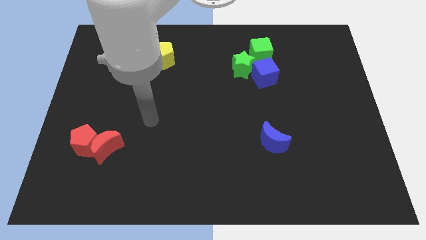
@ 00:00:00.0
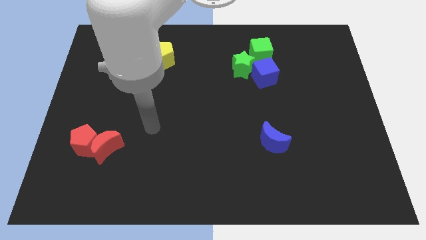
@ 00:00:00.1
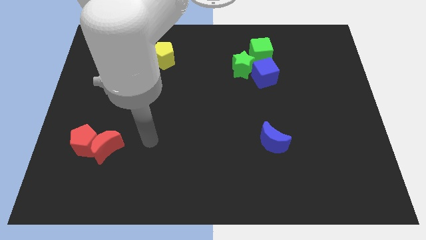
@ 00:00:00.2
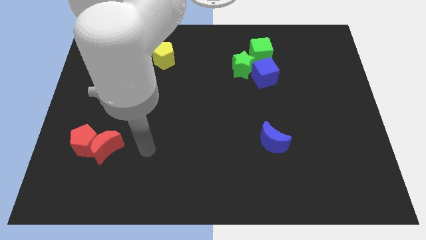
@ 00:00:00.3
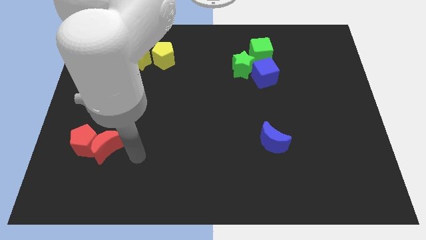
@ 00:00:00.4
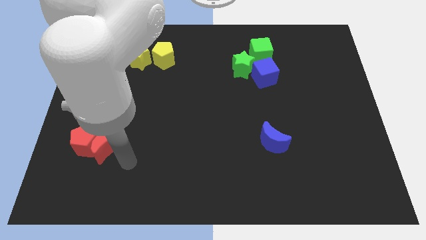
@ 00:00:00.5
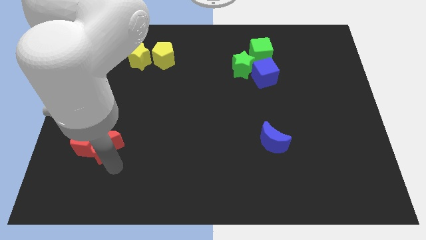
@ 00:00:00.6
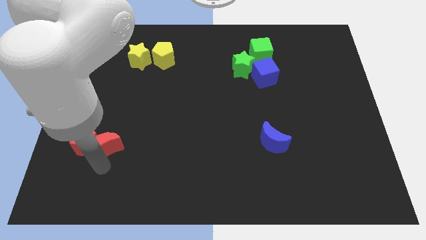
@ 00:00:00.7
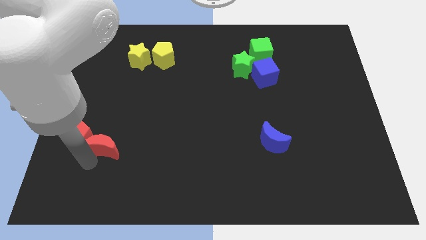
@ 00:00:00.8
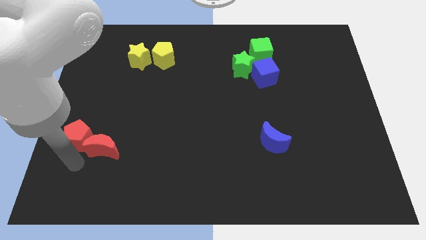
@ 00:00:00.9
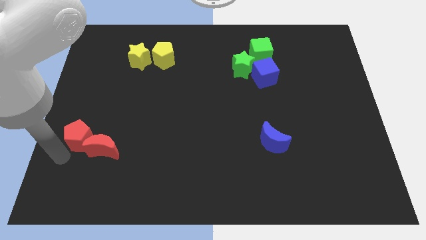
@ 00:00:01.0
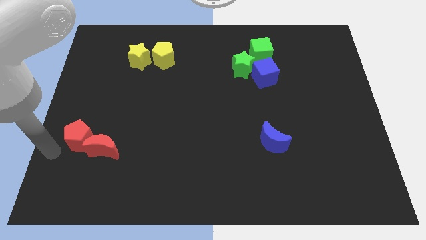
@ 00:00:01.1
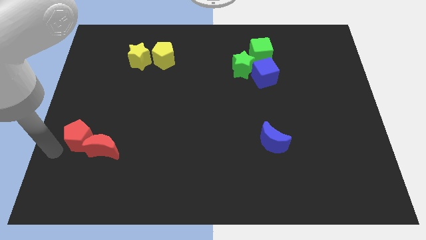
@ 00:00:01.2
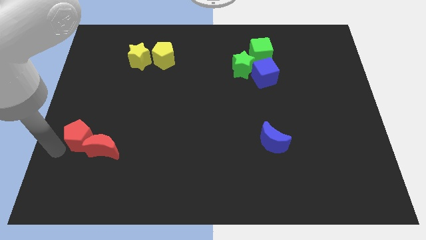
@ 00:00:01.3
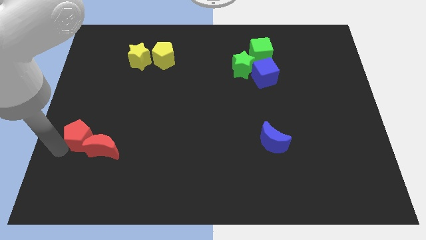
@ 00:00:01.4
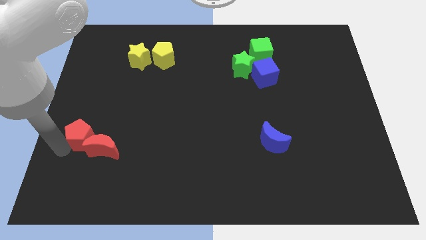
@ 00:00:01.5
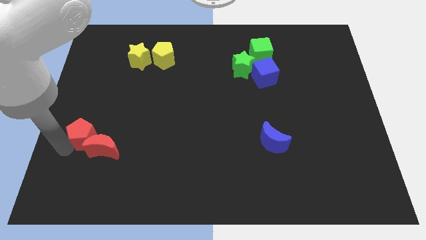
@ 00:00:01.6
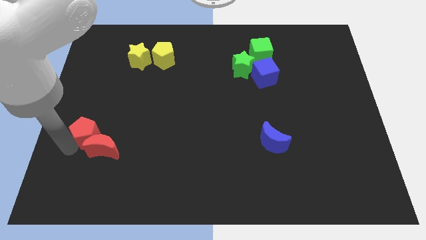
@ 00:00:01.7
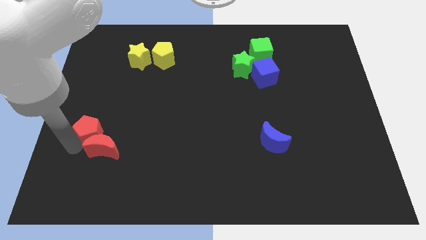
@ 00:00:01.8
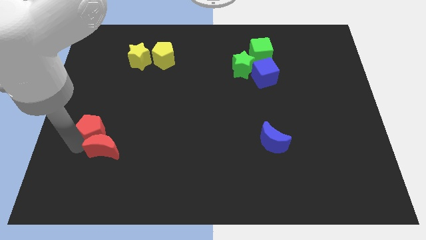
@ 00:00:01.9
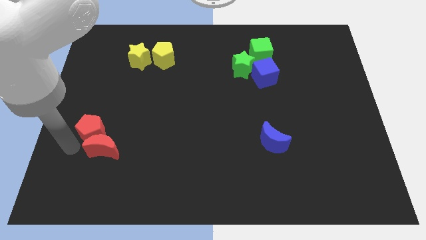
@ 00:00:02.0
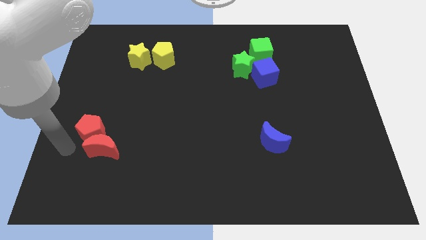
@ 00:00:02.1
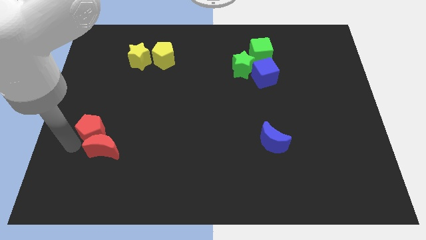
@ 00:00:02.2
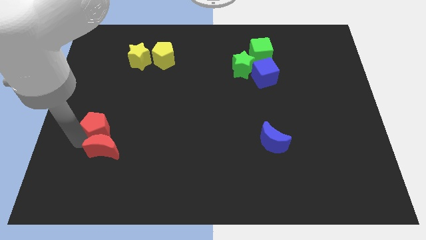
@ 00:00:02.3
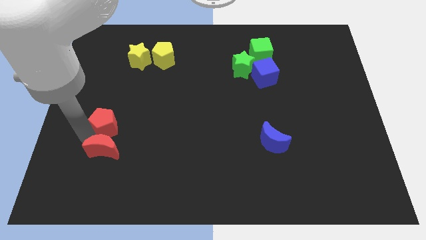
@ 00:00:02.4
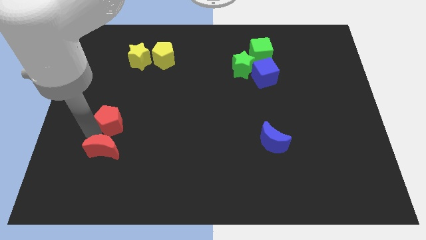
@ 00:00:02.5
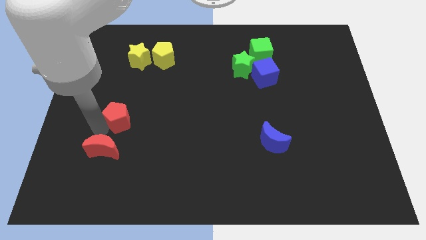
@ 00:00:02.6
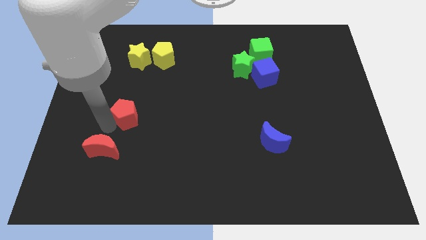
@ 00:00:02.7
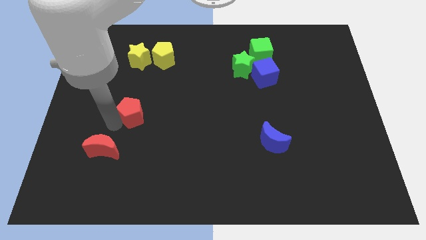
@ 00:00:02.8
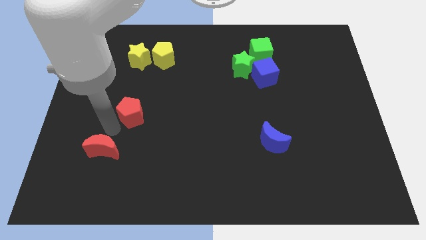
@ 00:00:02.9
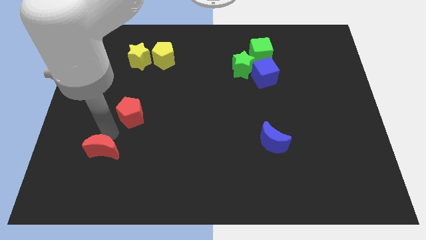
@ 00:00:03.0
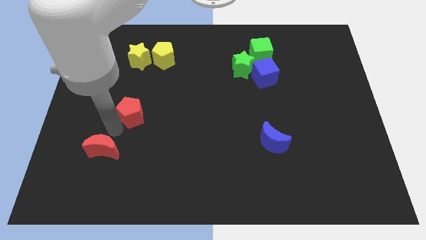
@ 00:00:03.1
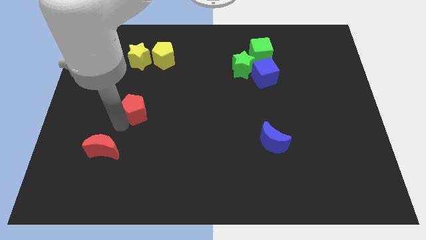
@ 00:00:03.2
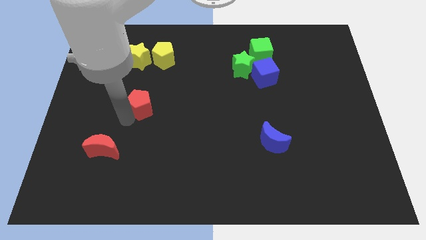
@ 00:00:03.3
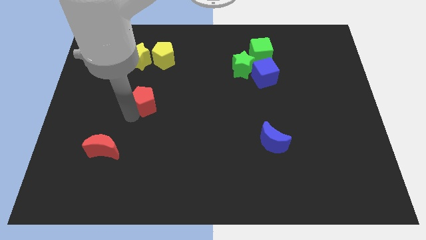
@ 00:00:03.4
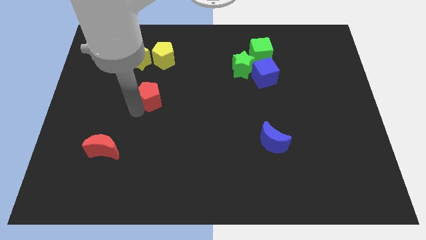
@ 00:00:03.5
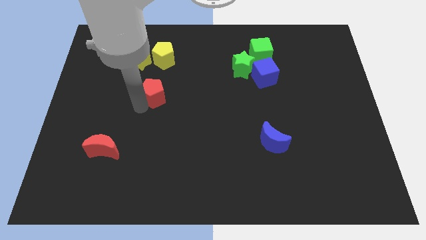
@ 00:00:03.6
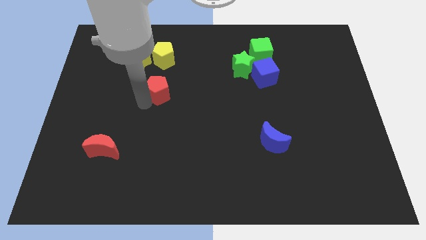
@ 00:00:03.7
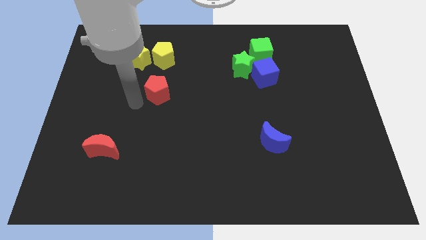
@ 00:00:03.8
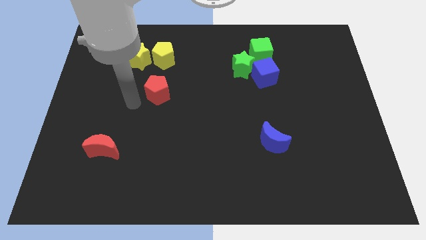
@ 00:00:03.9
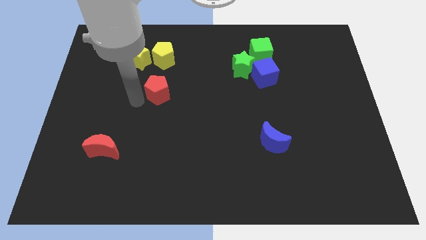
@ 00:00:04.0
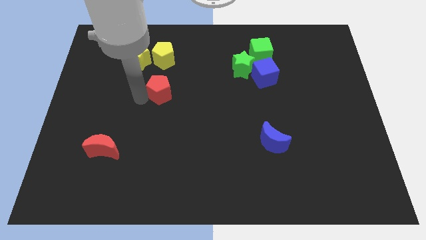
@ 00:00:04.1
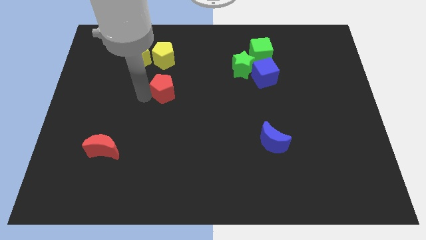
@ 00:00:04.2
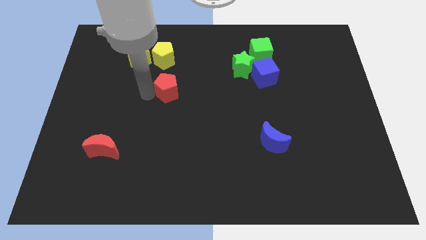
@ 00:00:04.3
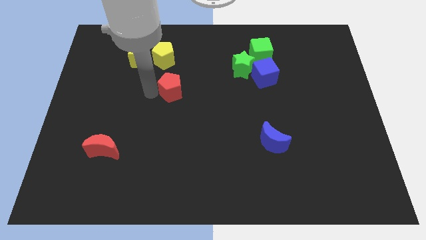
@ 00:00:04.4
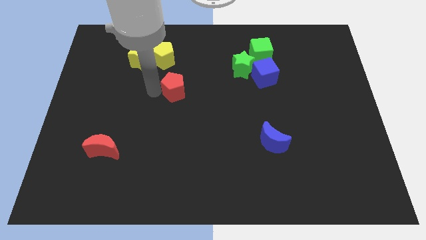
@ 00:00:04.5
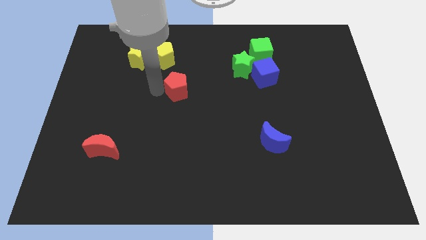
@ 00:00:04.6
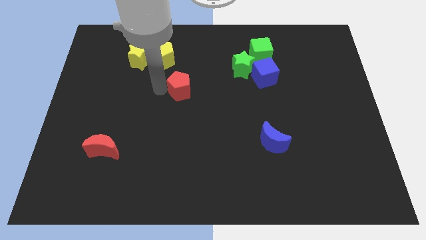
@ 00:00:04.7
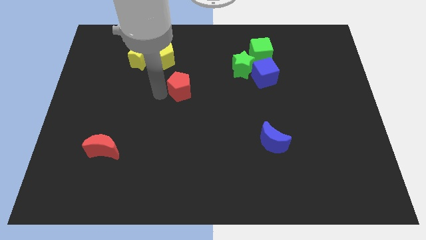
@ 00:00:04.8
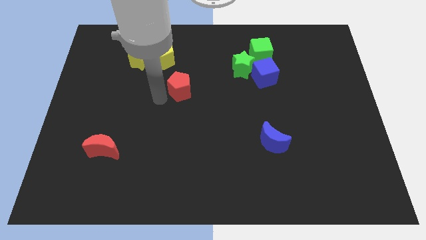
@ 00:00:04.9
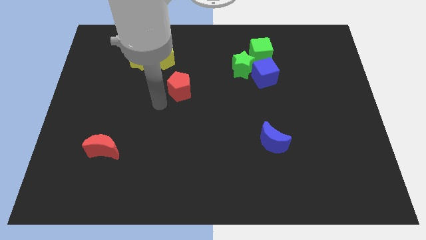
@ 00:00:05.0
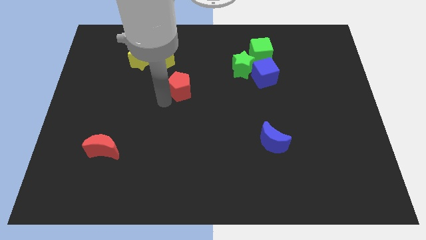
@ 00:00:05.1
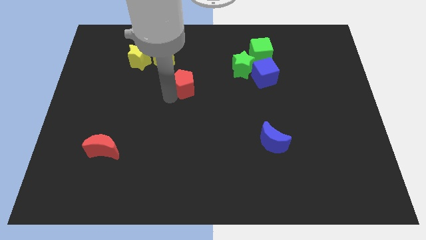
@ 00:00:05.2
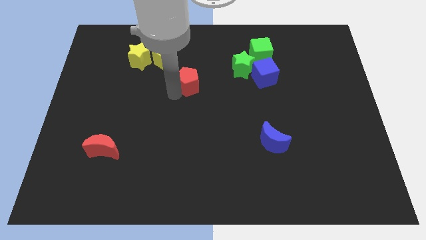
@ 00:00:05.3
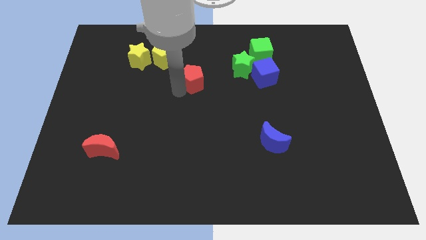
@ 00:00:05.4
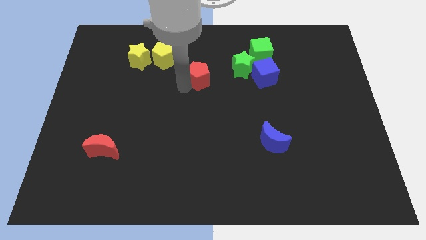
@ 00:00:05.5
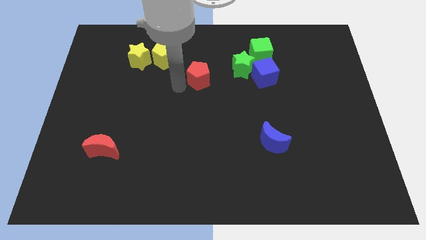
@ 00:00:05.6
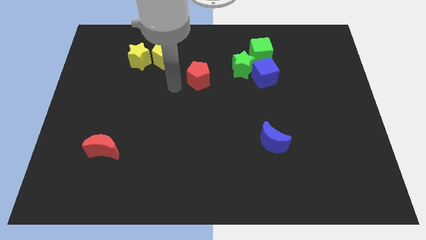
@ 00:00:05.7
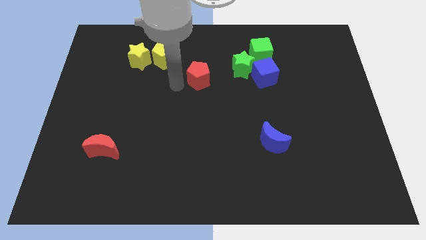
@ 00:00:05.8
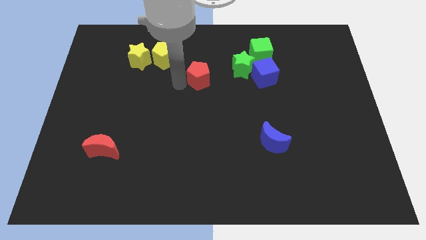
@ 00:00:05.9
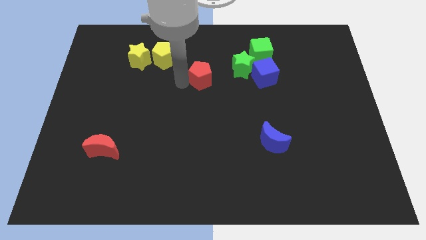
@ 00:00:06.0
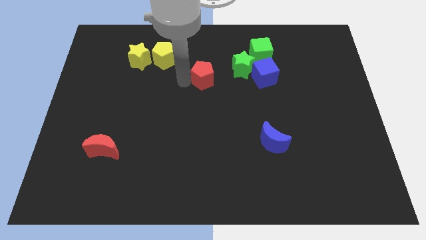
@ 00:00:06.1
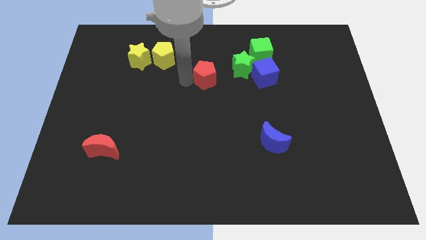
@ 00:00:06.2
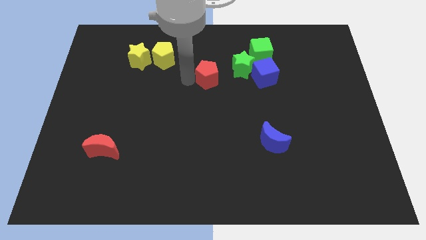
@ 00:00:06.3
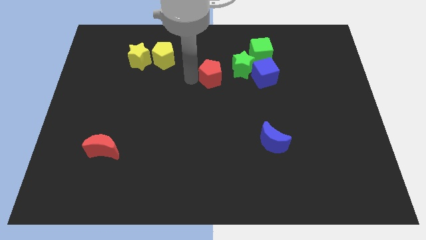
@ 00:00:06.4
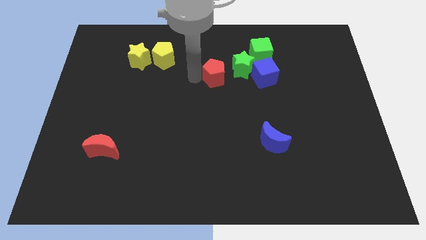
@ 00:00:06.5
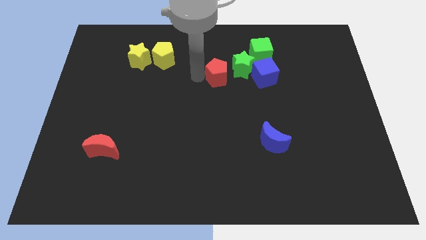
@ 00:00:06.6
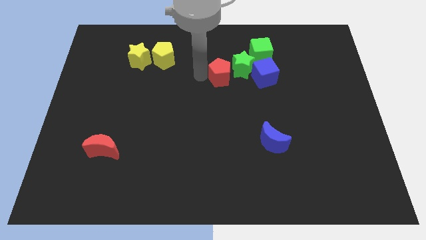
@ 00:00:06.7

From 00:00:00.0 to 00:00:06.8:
move the red pentagon close to the green star

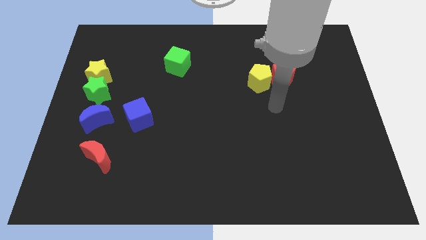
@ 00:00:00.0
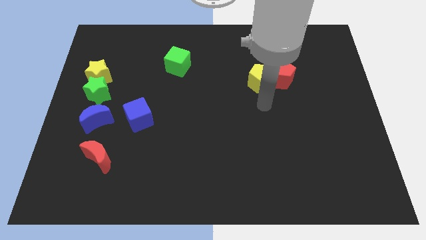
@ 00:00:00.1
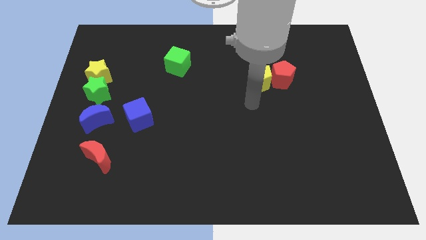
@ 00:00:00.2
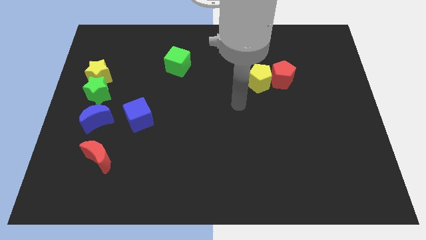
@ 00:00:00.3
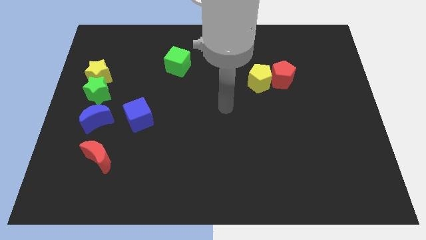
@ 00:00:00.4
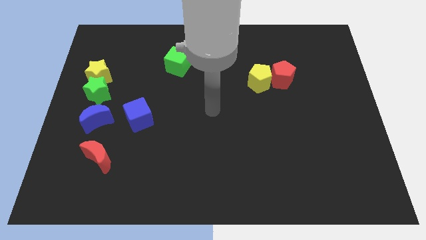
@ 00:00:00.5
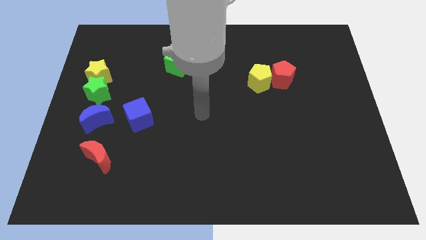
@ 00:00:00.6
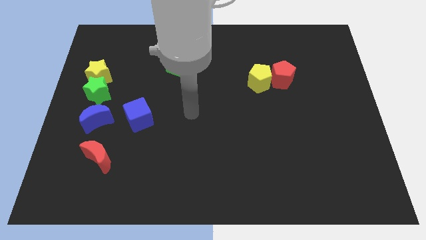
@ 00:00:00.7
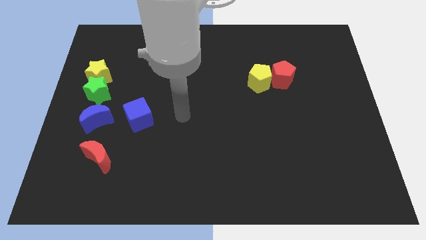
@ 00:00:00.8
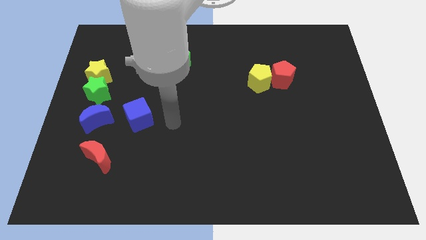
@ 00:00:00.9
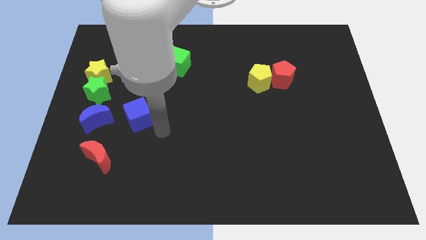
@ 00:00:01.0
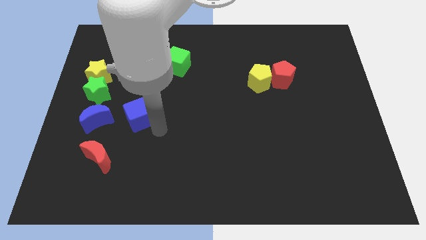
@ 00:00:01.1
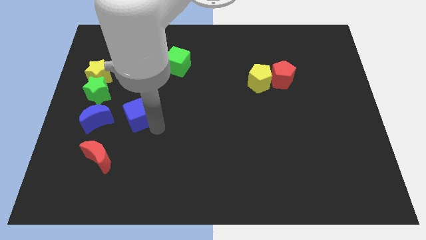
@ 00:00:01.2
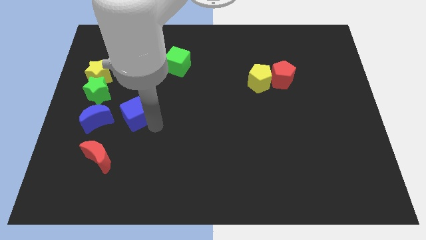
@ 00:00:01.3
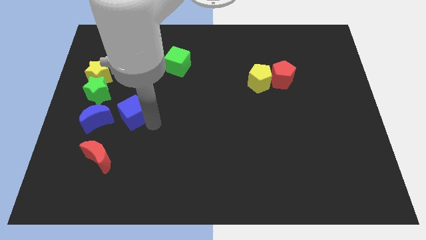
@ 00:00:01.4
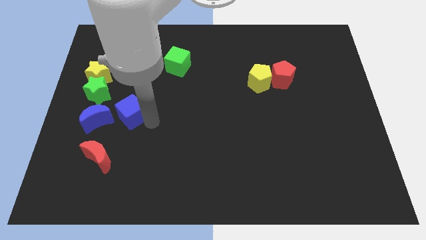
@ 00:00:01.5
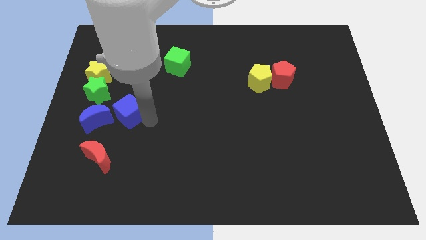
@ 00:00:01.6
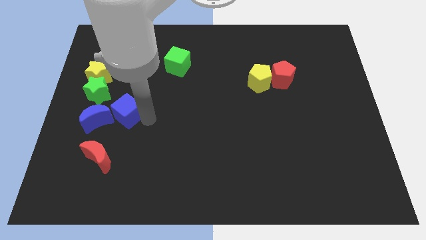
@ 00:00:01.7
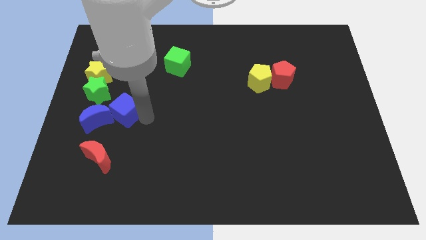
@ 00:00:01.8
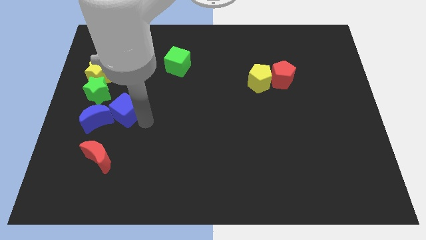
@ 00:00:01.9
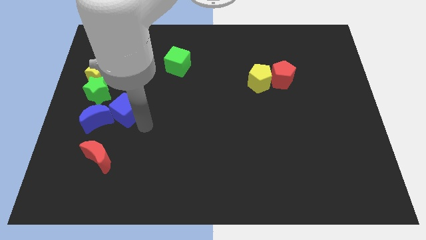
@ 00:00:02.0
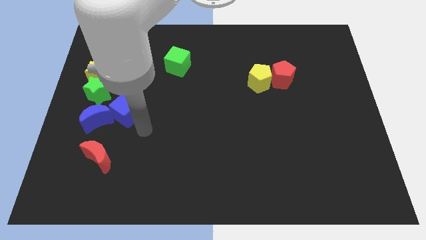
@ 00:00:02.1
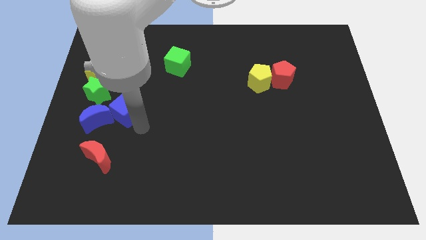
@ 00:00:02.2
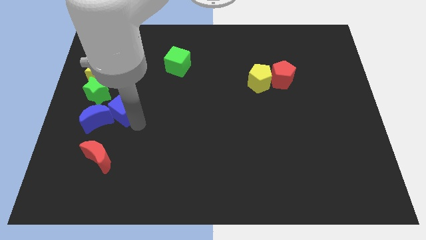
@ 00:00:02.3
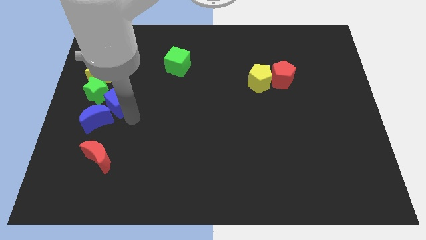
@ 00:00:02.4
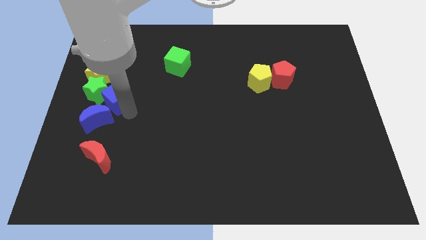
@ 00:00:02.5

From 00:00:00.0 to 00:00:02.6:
slide the blue cube close to the green star
